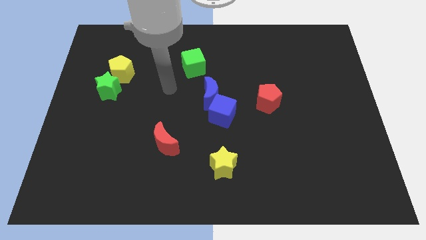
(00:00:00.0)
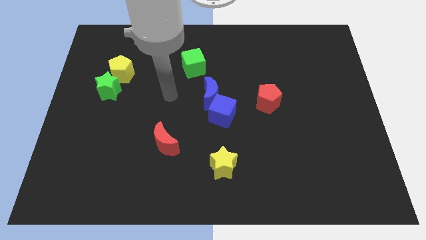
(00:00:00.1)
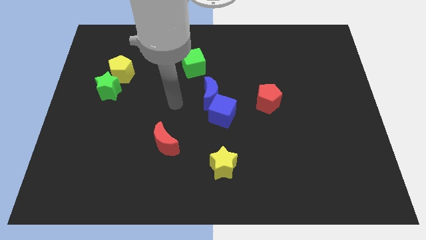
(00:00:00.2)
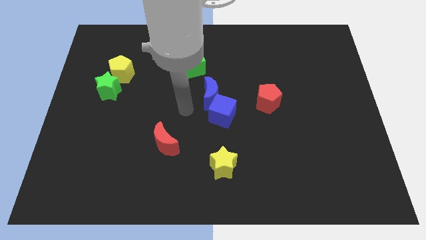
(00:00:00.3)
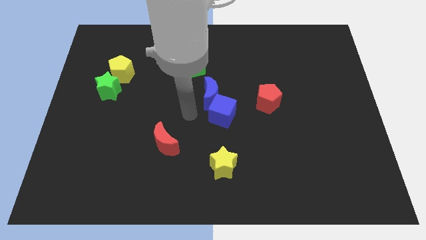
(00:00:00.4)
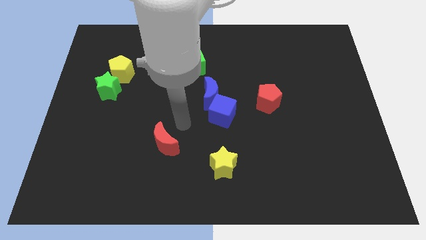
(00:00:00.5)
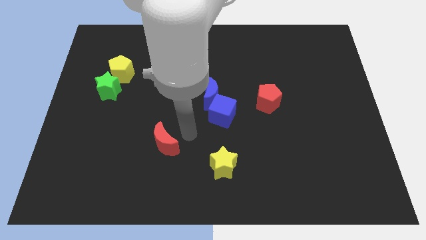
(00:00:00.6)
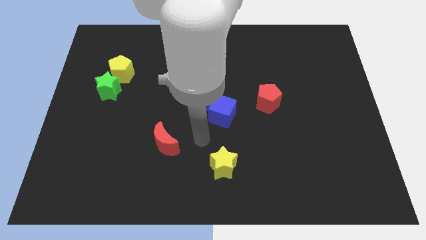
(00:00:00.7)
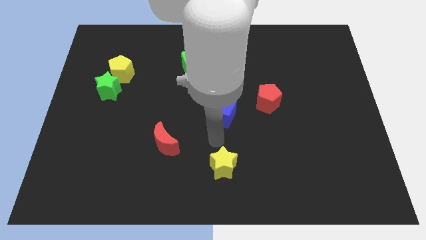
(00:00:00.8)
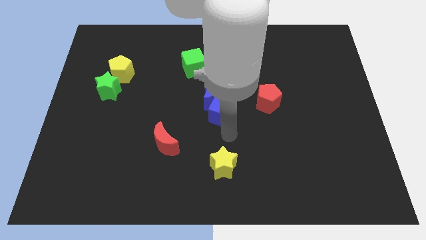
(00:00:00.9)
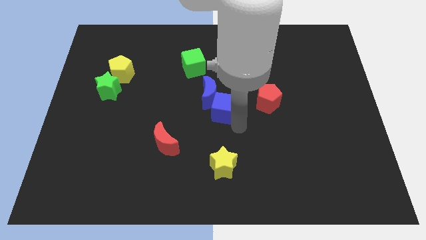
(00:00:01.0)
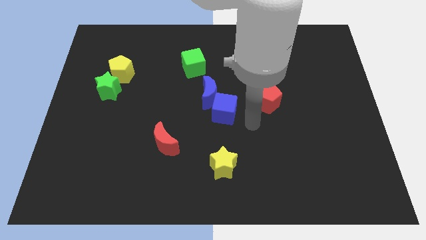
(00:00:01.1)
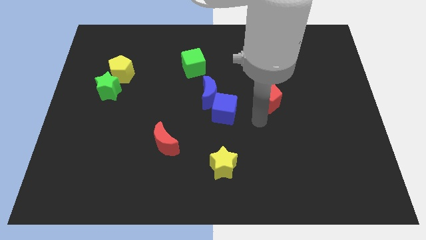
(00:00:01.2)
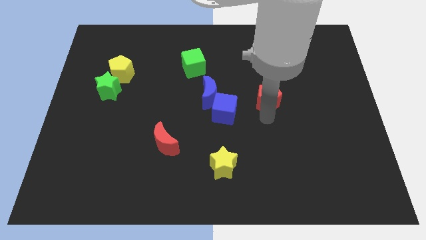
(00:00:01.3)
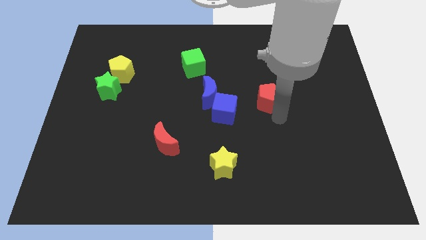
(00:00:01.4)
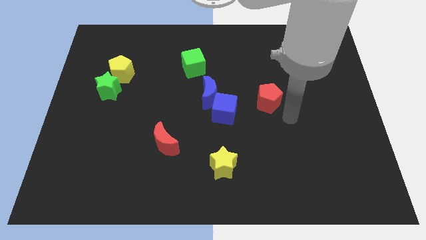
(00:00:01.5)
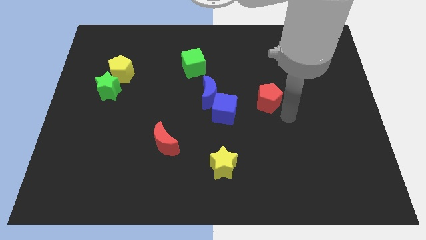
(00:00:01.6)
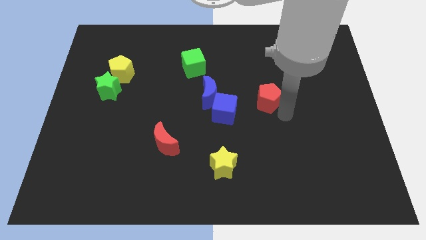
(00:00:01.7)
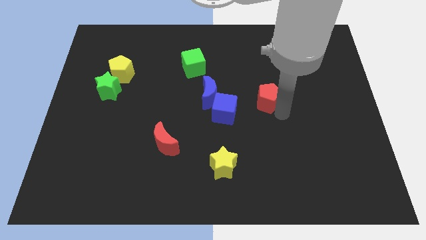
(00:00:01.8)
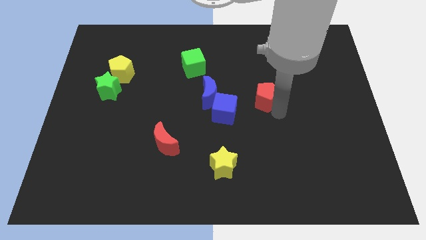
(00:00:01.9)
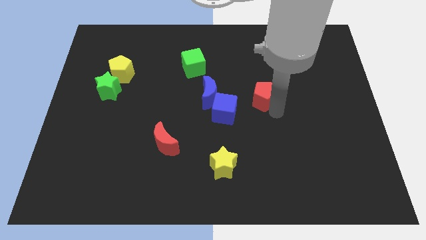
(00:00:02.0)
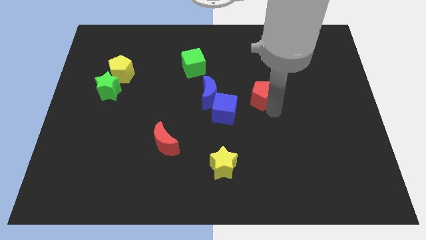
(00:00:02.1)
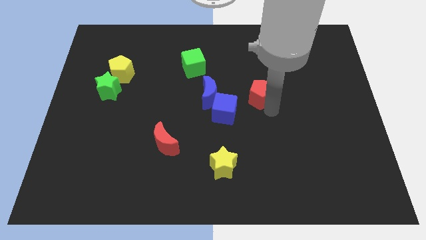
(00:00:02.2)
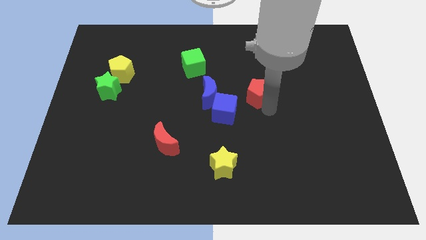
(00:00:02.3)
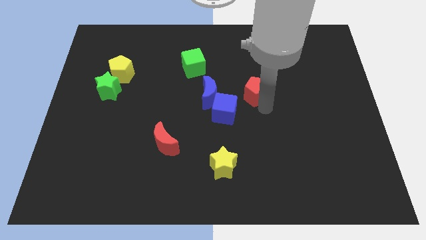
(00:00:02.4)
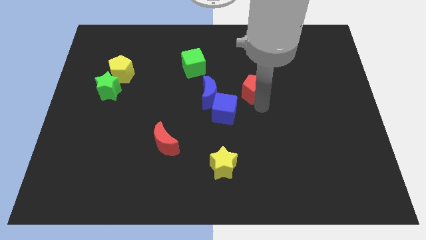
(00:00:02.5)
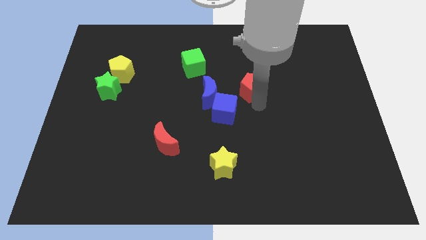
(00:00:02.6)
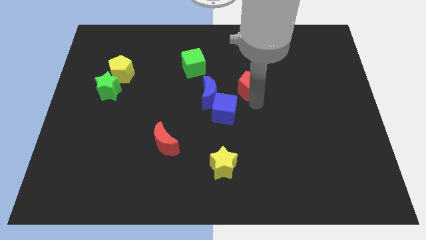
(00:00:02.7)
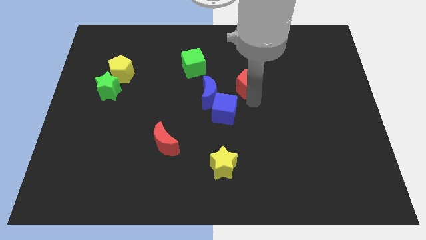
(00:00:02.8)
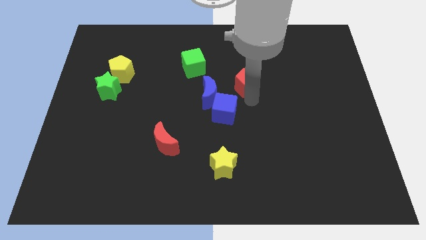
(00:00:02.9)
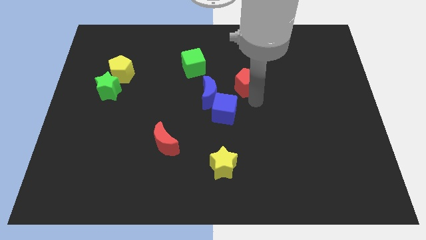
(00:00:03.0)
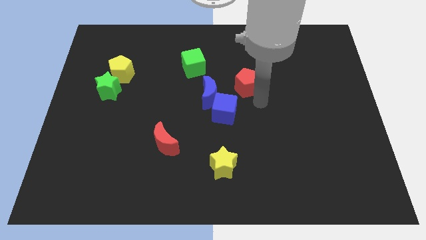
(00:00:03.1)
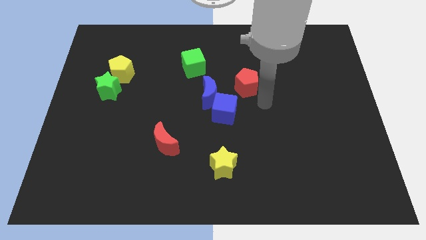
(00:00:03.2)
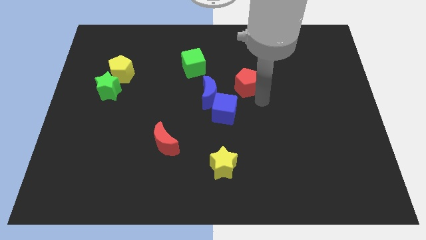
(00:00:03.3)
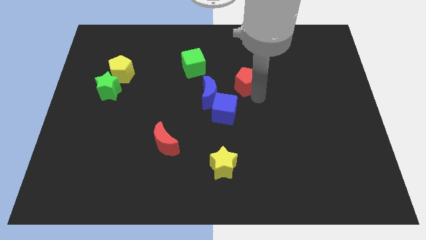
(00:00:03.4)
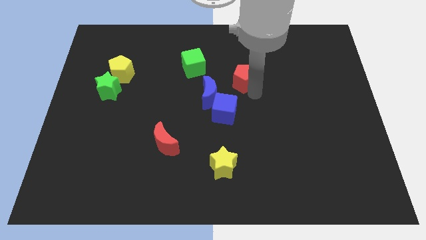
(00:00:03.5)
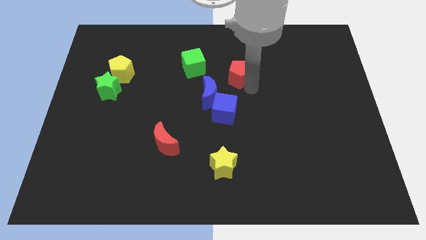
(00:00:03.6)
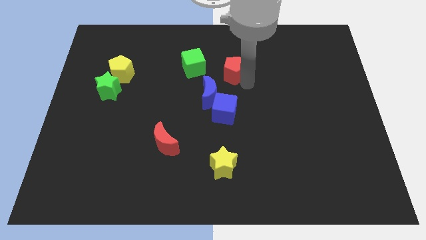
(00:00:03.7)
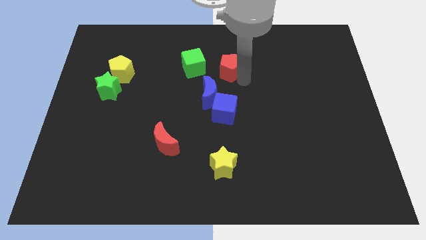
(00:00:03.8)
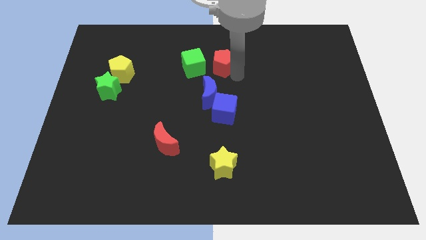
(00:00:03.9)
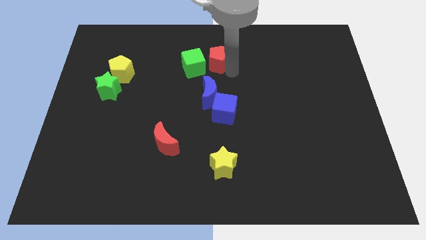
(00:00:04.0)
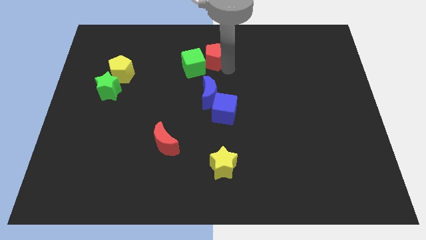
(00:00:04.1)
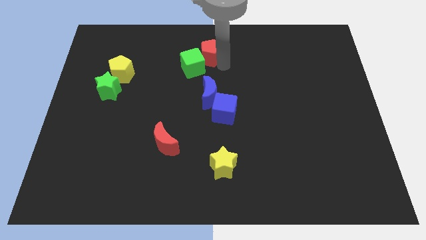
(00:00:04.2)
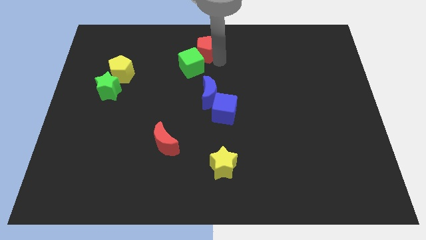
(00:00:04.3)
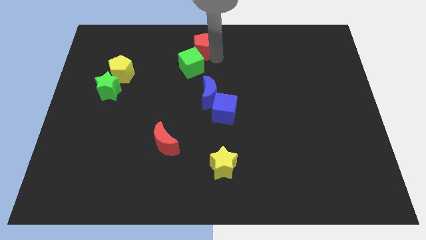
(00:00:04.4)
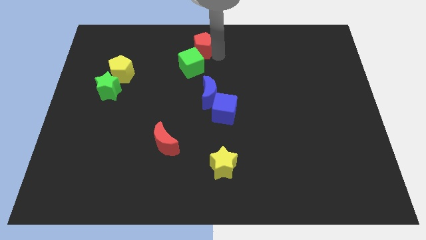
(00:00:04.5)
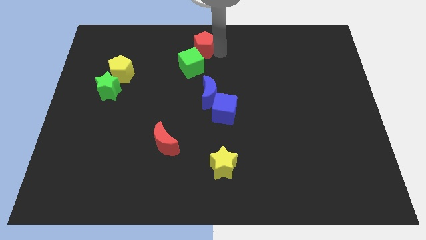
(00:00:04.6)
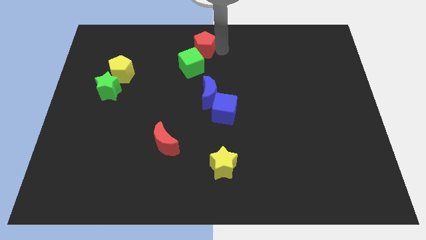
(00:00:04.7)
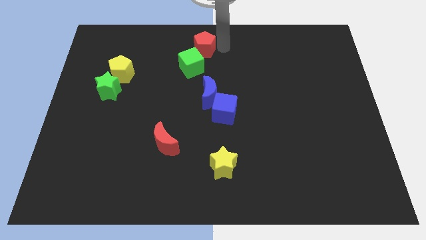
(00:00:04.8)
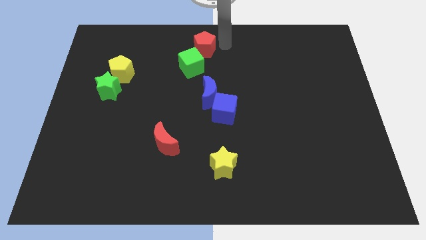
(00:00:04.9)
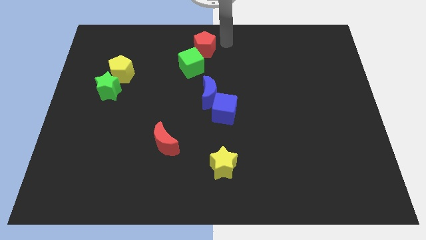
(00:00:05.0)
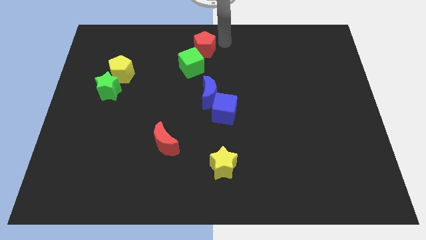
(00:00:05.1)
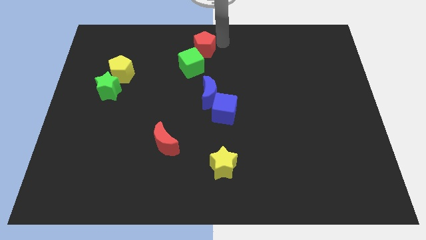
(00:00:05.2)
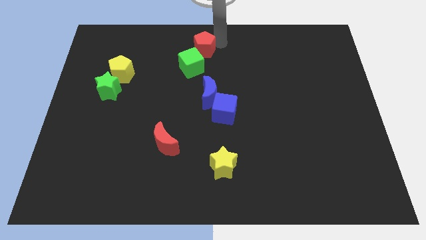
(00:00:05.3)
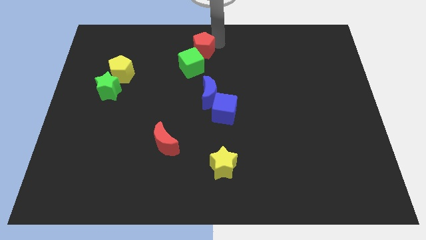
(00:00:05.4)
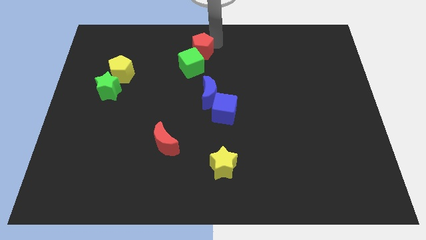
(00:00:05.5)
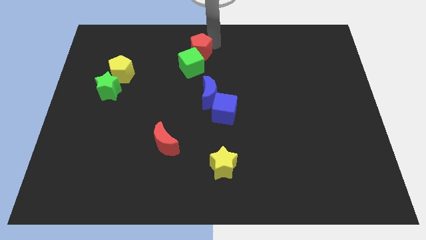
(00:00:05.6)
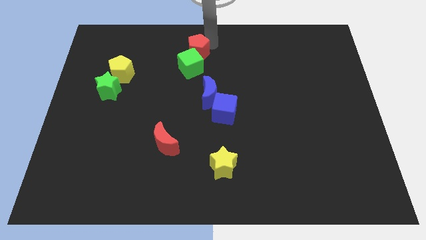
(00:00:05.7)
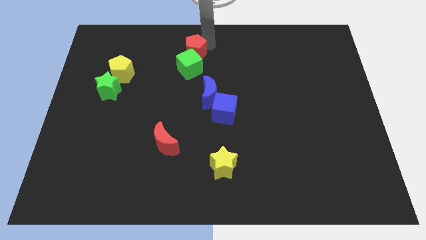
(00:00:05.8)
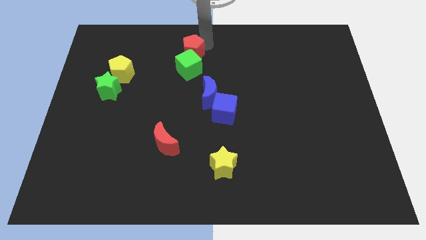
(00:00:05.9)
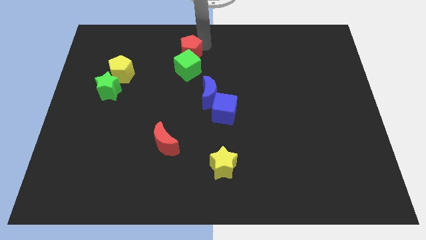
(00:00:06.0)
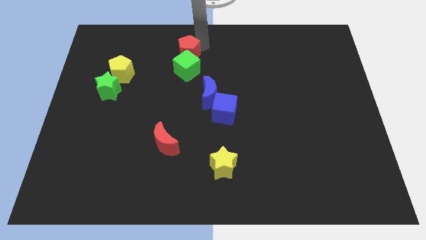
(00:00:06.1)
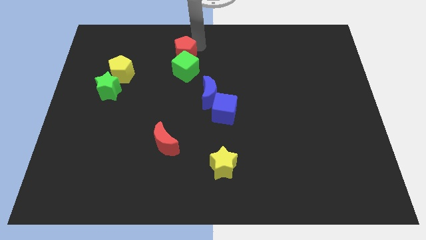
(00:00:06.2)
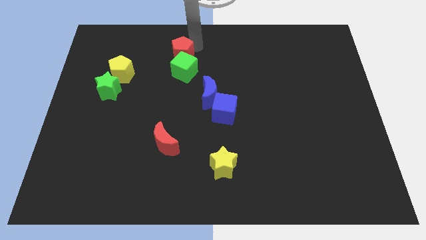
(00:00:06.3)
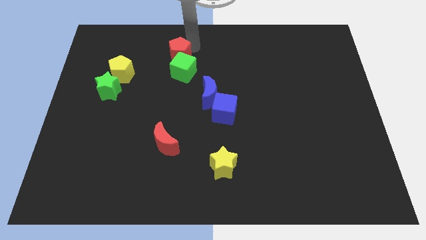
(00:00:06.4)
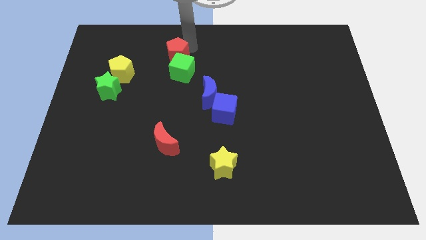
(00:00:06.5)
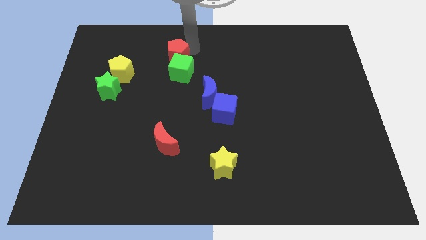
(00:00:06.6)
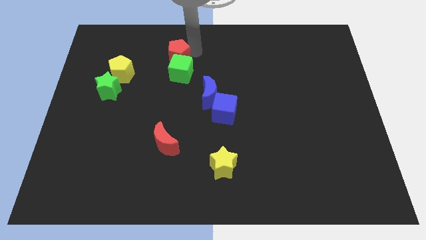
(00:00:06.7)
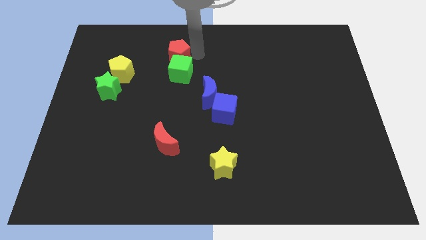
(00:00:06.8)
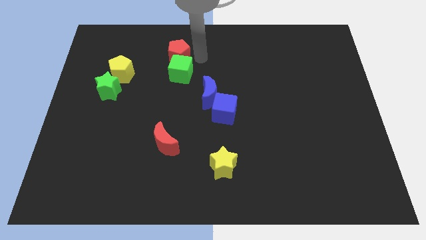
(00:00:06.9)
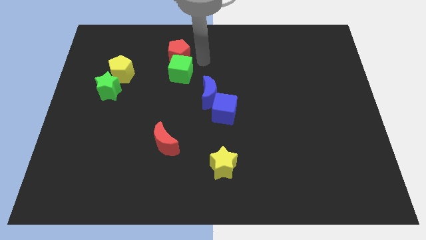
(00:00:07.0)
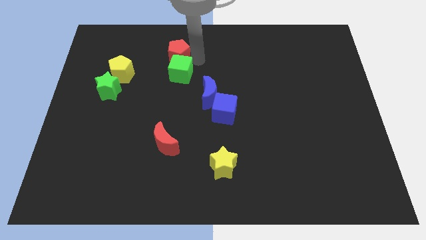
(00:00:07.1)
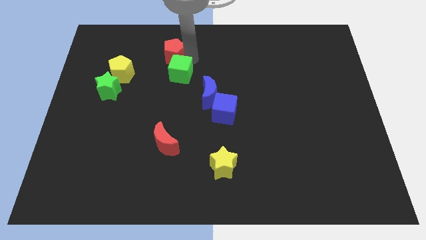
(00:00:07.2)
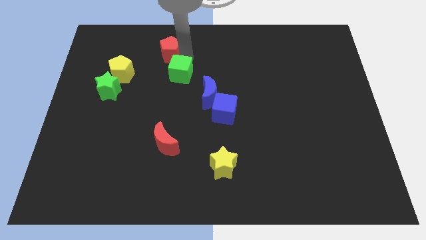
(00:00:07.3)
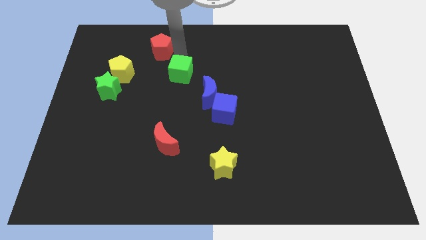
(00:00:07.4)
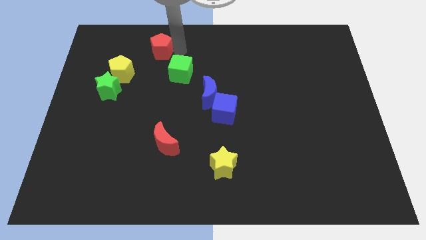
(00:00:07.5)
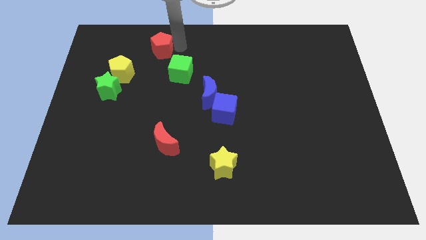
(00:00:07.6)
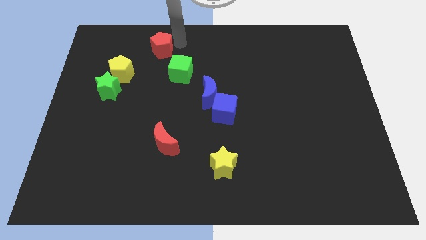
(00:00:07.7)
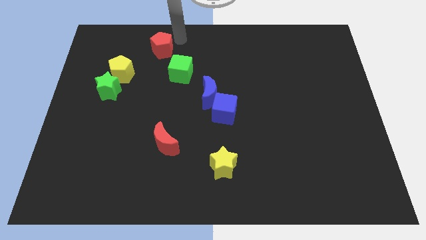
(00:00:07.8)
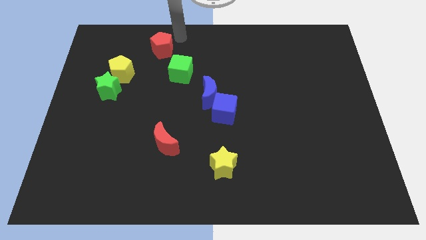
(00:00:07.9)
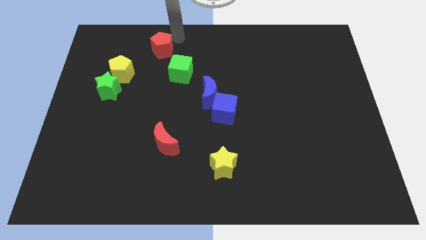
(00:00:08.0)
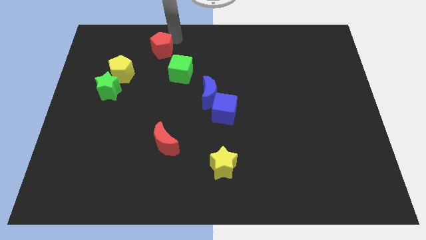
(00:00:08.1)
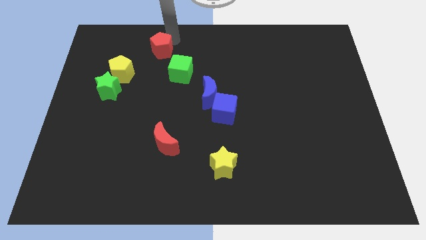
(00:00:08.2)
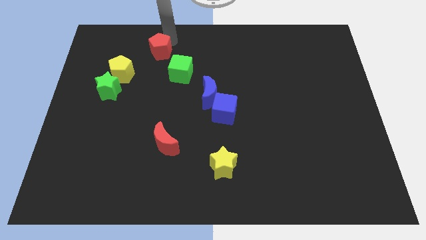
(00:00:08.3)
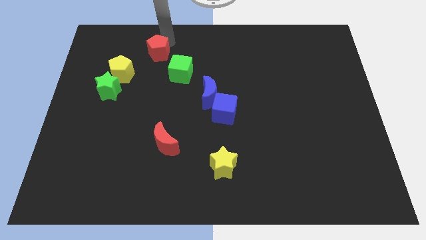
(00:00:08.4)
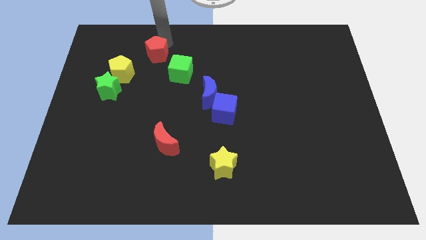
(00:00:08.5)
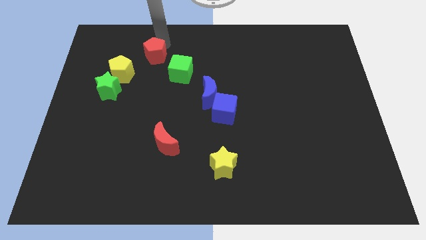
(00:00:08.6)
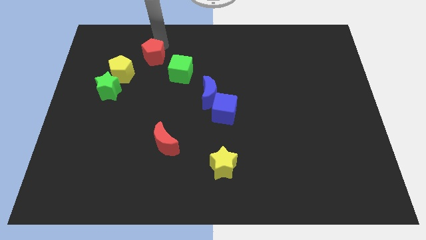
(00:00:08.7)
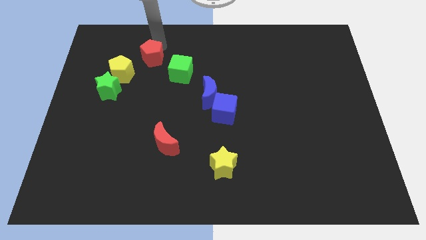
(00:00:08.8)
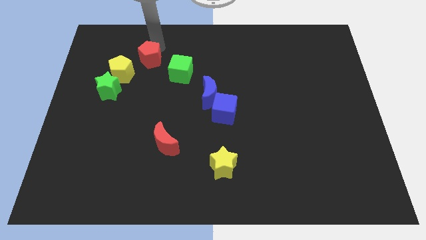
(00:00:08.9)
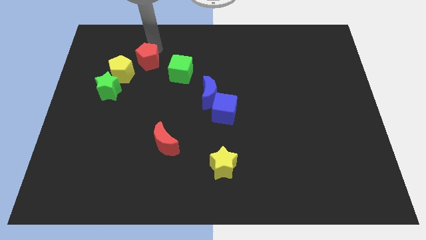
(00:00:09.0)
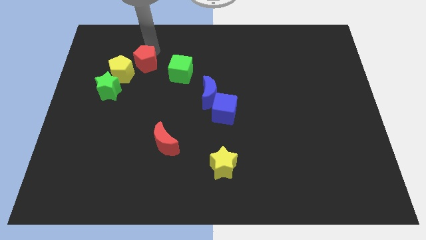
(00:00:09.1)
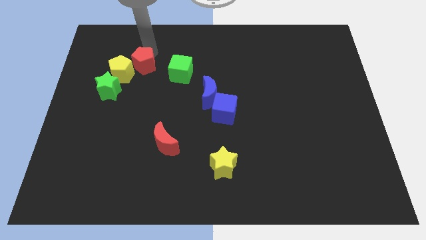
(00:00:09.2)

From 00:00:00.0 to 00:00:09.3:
put the red pentagon next to the yellow pentagon
